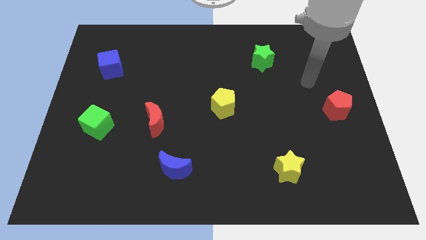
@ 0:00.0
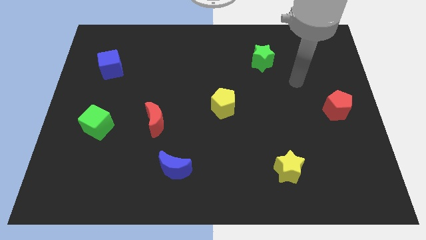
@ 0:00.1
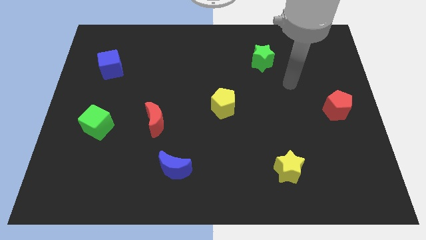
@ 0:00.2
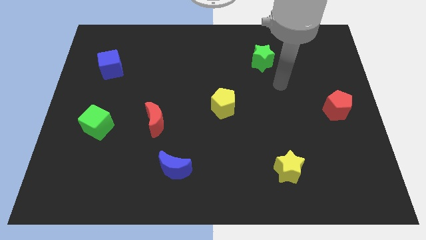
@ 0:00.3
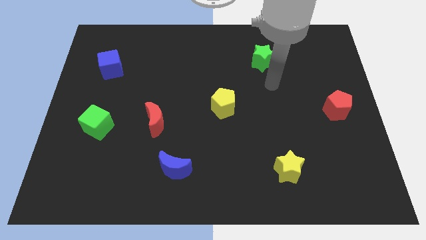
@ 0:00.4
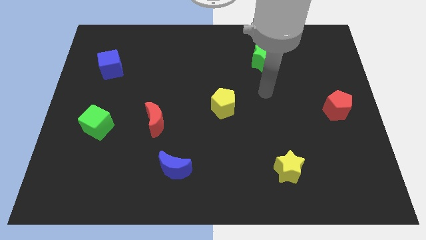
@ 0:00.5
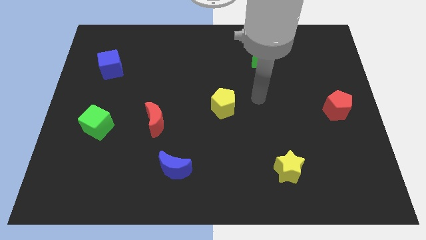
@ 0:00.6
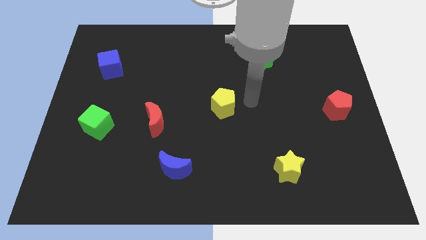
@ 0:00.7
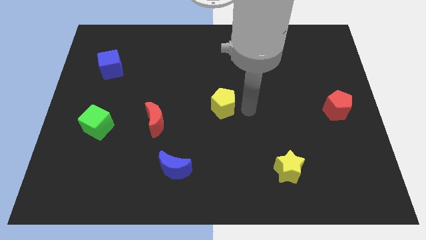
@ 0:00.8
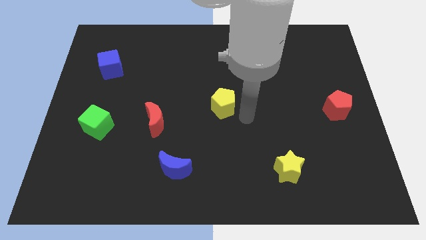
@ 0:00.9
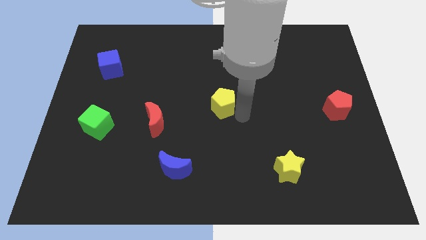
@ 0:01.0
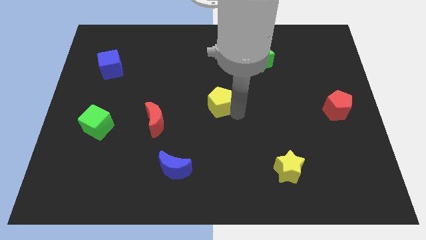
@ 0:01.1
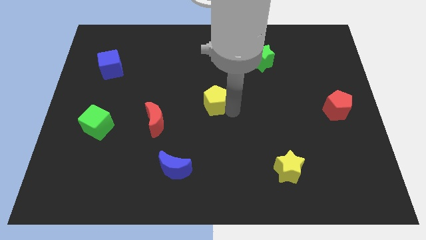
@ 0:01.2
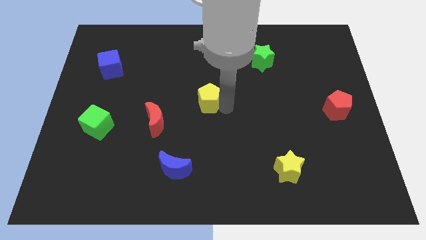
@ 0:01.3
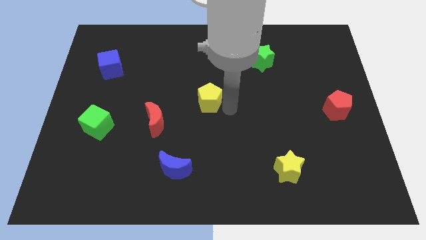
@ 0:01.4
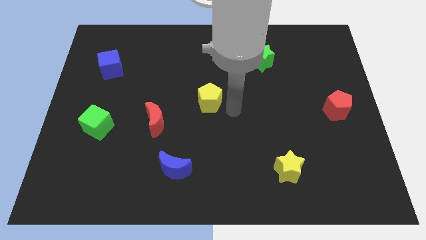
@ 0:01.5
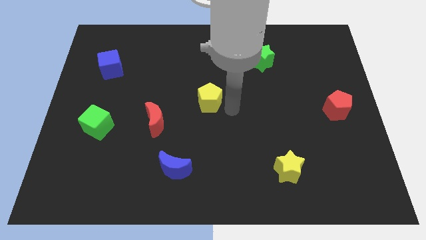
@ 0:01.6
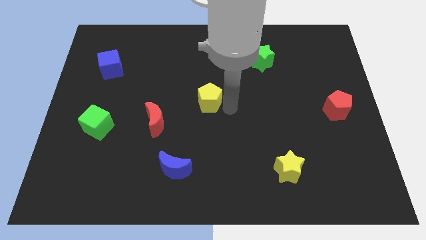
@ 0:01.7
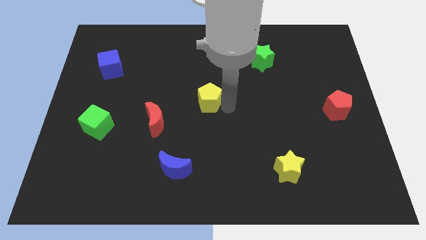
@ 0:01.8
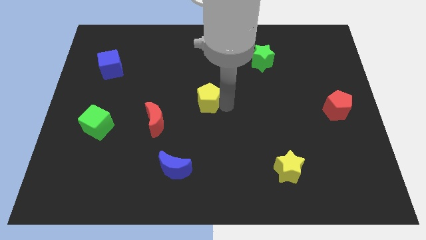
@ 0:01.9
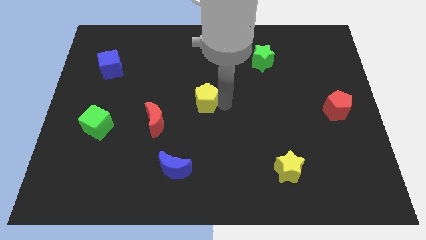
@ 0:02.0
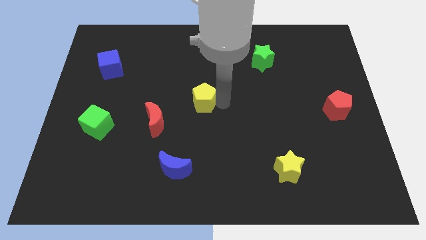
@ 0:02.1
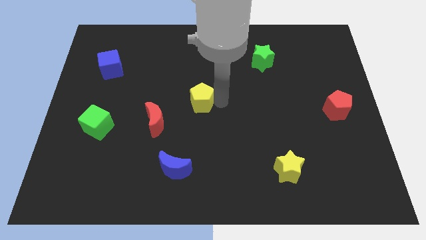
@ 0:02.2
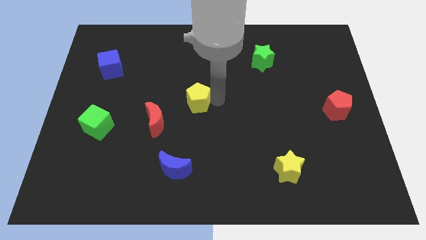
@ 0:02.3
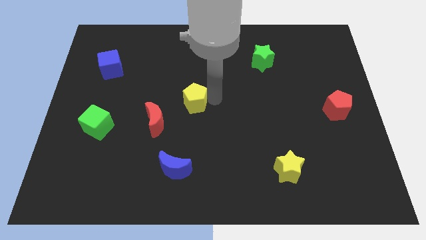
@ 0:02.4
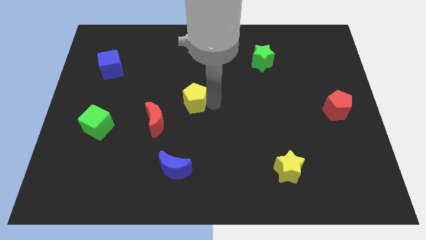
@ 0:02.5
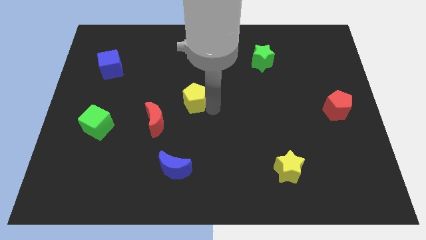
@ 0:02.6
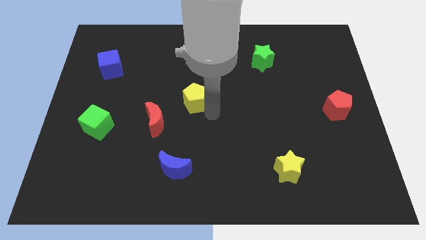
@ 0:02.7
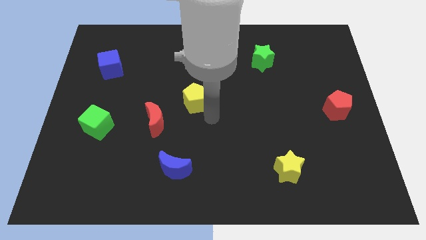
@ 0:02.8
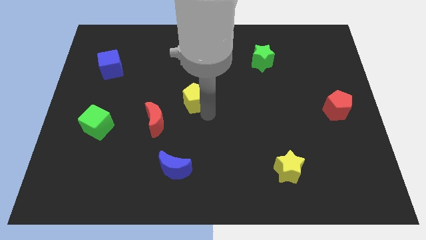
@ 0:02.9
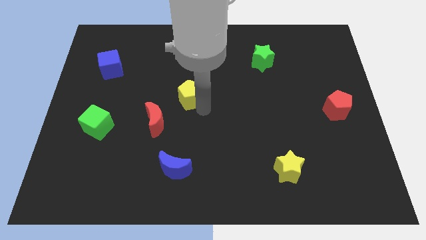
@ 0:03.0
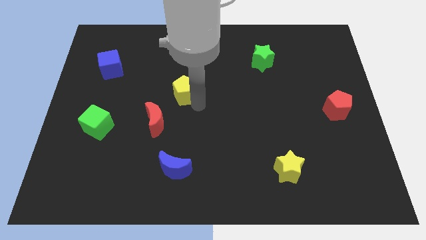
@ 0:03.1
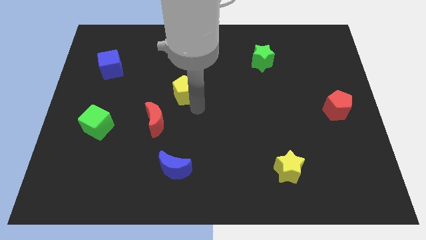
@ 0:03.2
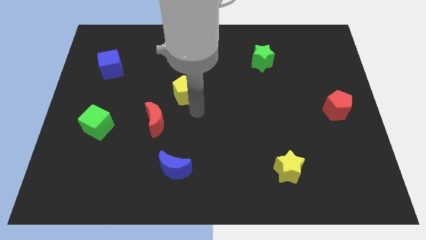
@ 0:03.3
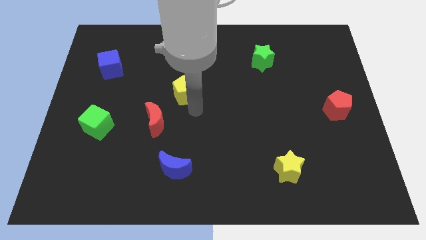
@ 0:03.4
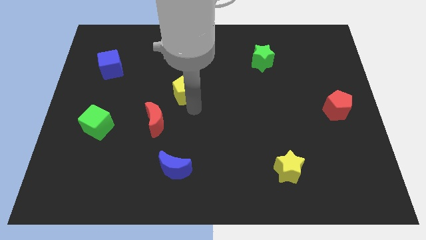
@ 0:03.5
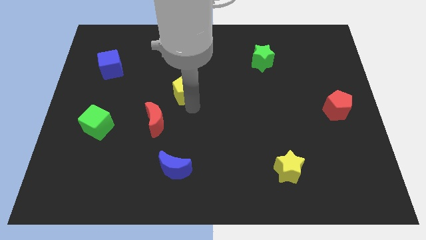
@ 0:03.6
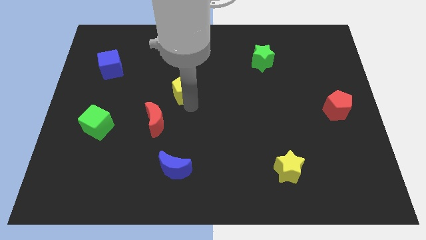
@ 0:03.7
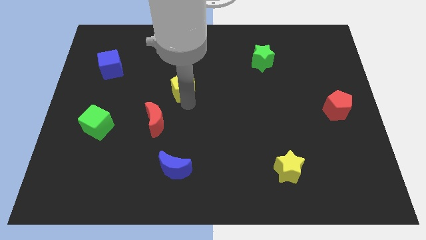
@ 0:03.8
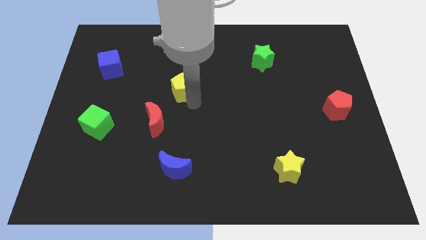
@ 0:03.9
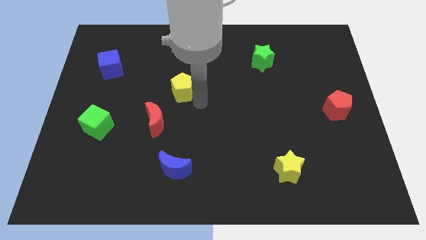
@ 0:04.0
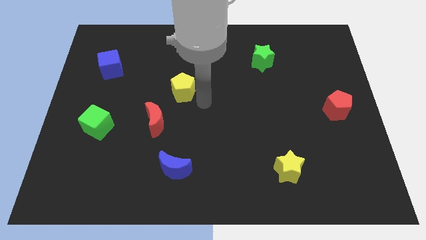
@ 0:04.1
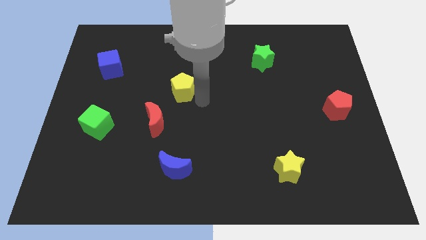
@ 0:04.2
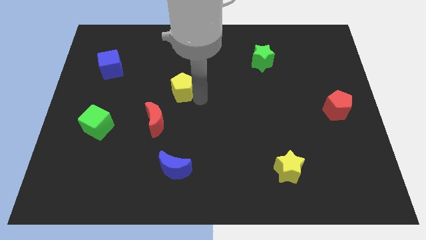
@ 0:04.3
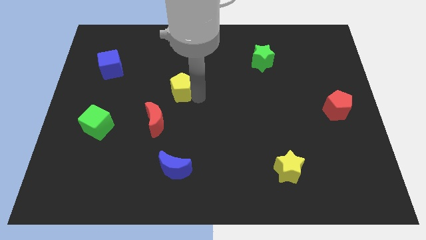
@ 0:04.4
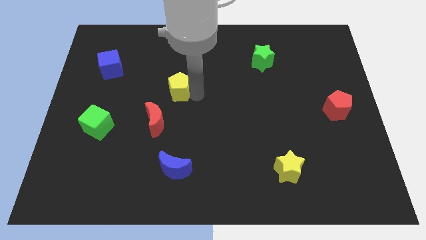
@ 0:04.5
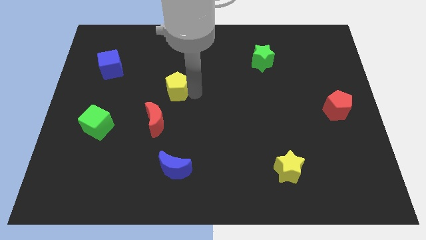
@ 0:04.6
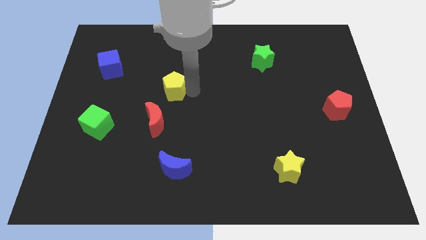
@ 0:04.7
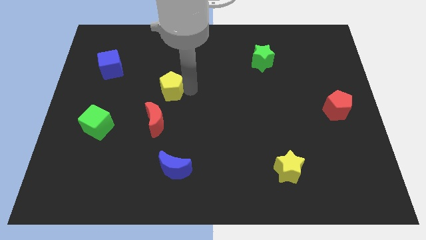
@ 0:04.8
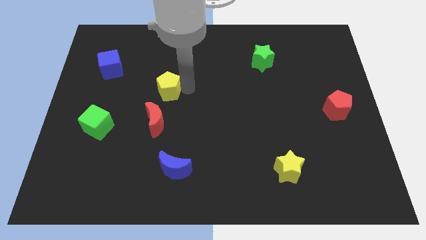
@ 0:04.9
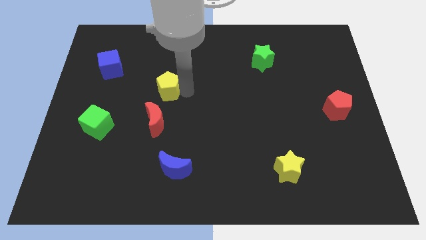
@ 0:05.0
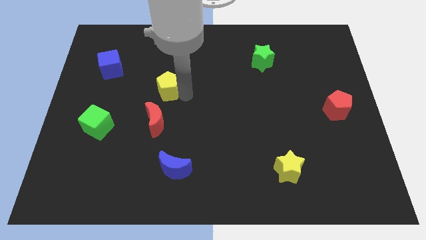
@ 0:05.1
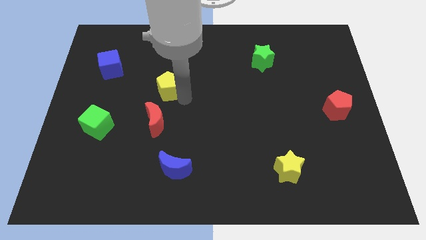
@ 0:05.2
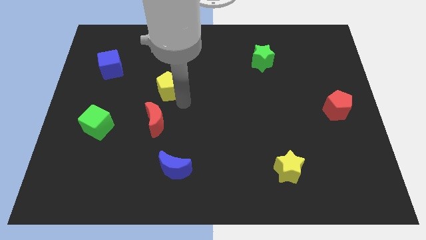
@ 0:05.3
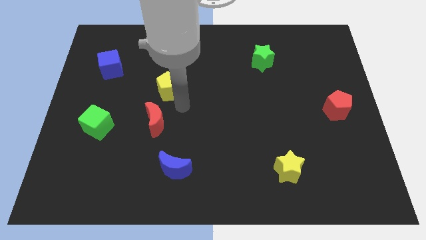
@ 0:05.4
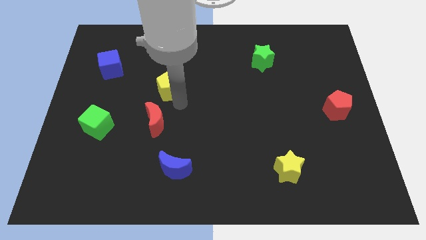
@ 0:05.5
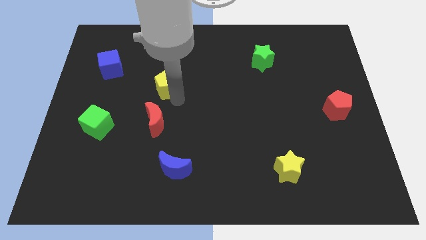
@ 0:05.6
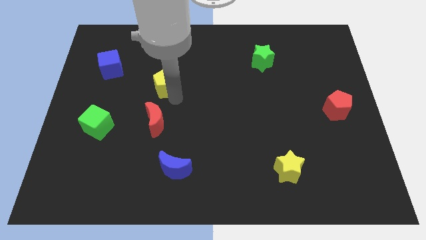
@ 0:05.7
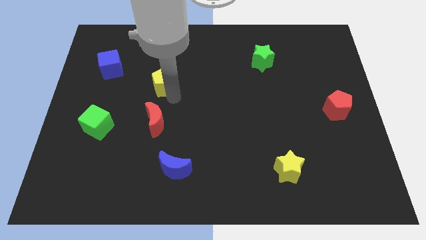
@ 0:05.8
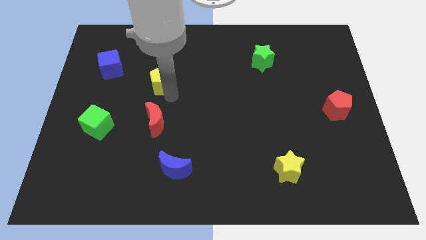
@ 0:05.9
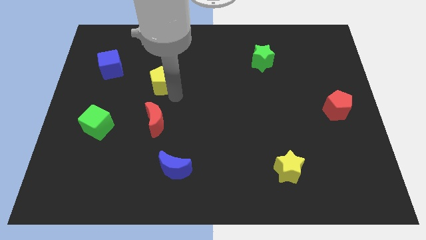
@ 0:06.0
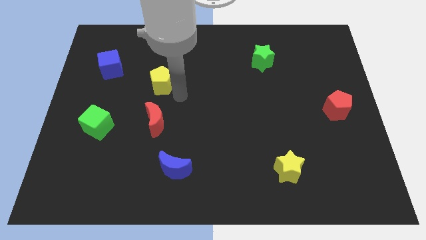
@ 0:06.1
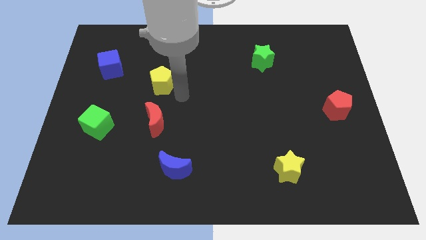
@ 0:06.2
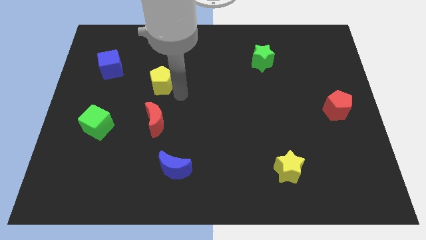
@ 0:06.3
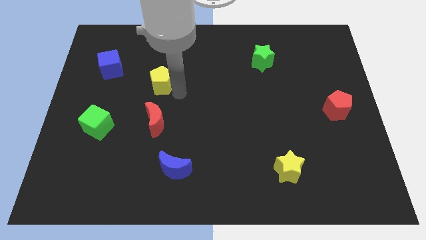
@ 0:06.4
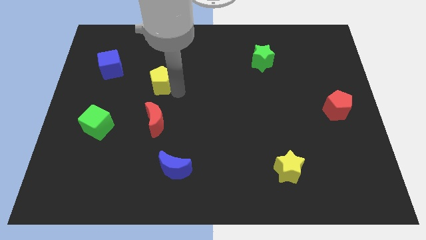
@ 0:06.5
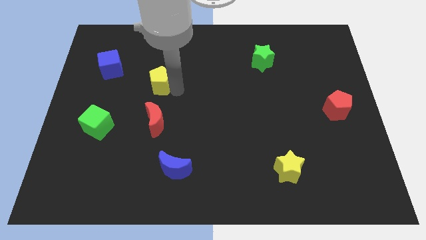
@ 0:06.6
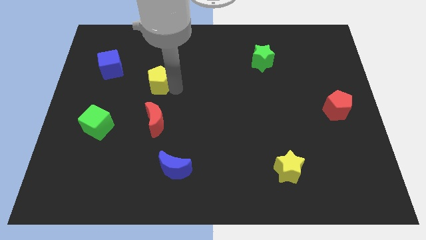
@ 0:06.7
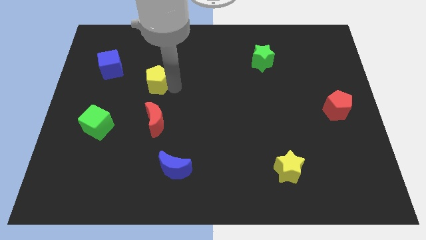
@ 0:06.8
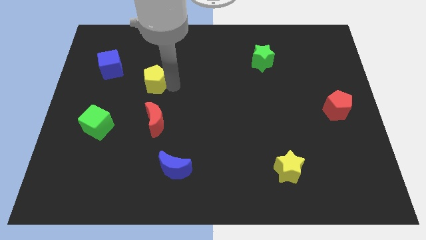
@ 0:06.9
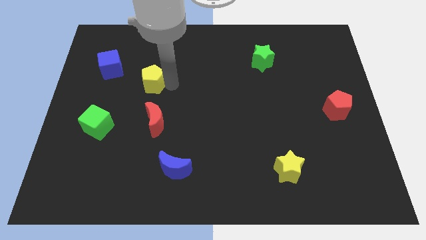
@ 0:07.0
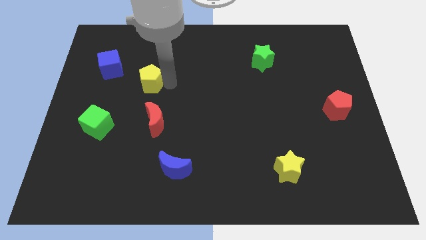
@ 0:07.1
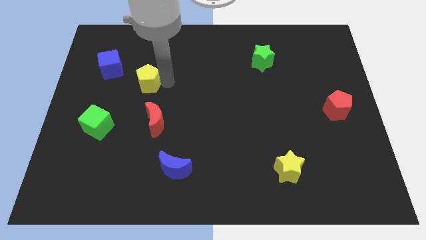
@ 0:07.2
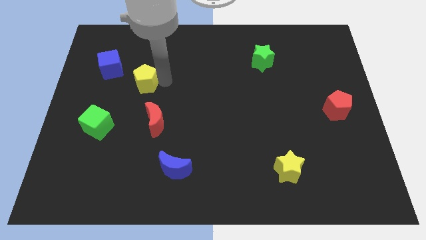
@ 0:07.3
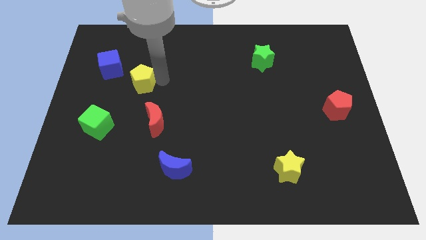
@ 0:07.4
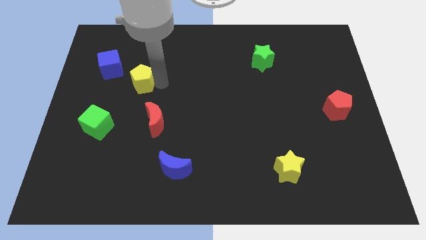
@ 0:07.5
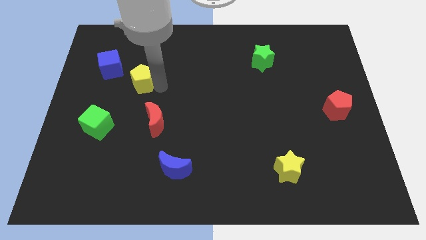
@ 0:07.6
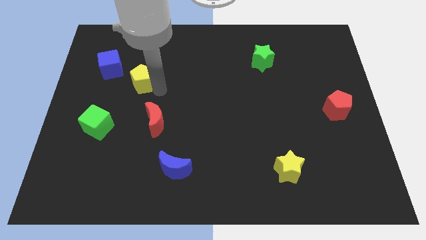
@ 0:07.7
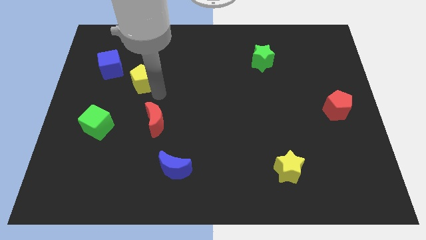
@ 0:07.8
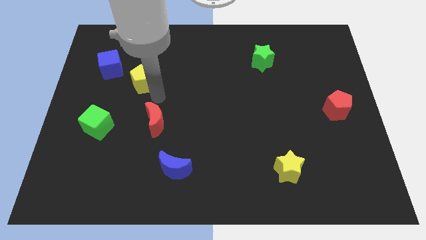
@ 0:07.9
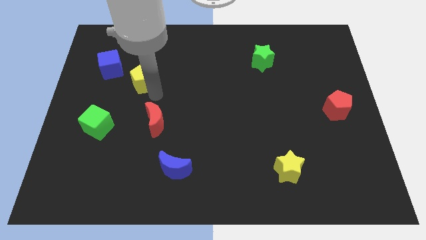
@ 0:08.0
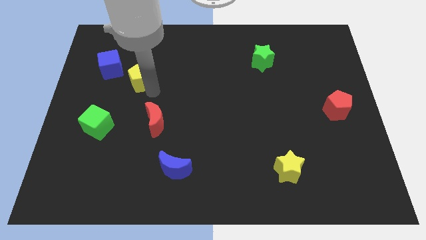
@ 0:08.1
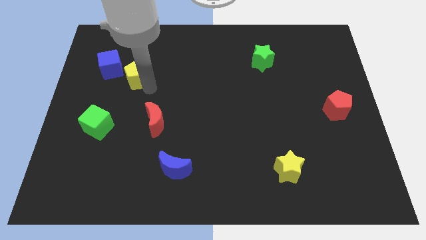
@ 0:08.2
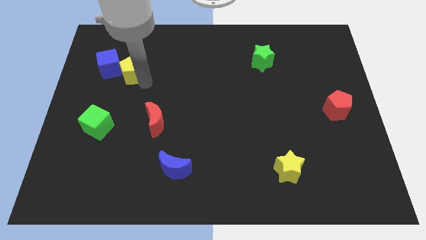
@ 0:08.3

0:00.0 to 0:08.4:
slide the yellow pentagon next to the blue cube
